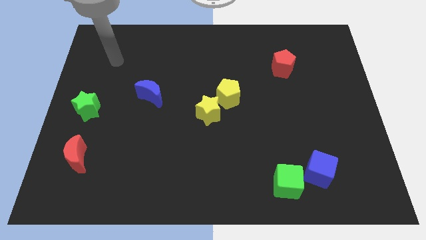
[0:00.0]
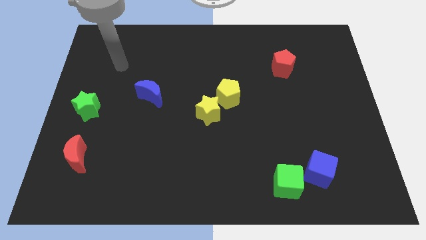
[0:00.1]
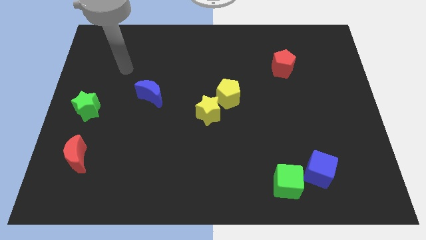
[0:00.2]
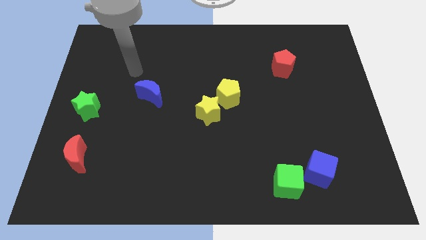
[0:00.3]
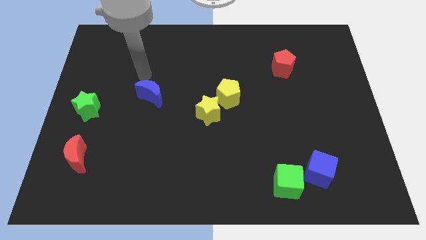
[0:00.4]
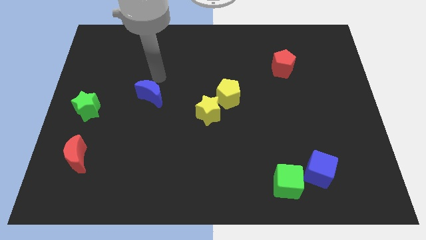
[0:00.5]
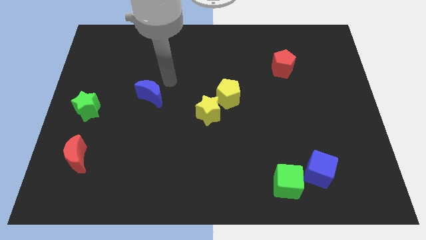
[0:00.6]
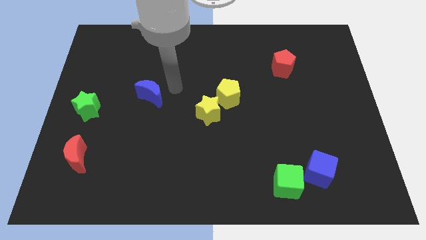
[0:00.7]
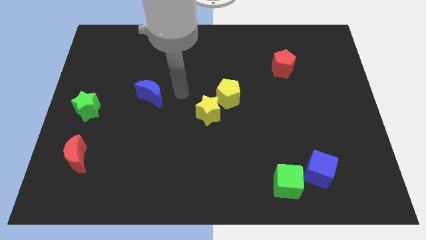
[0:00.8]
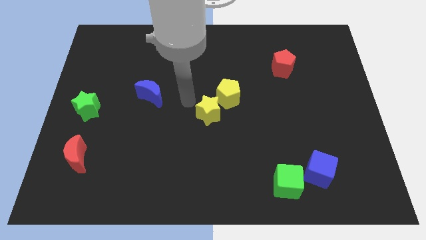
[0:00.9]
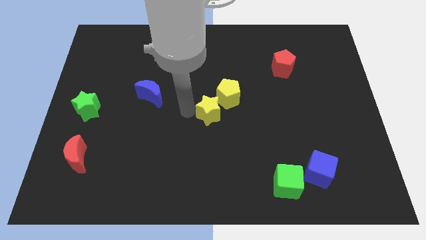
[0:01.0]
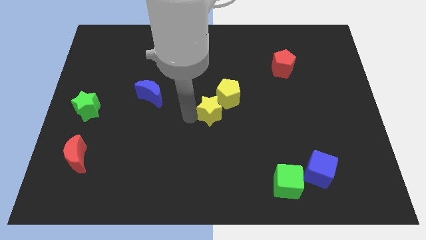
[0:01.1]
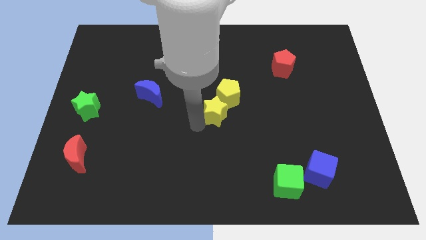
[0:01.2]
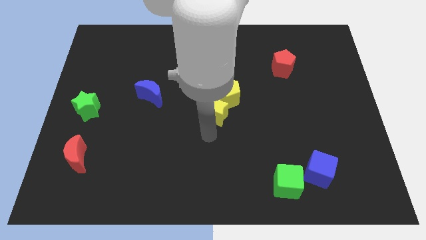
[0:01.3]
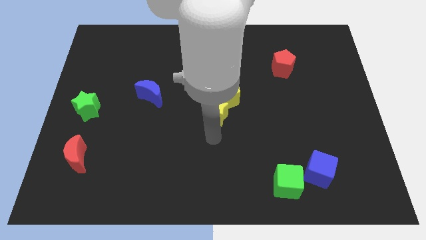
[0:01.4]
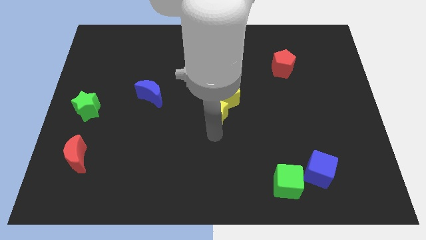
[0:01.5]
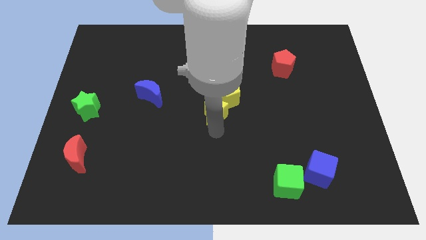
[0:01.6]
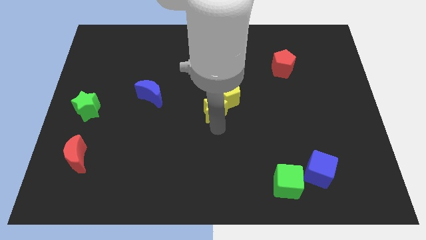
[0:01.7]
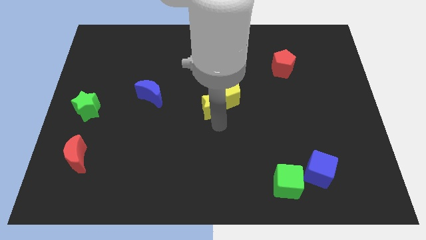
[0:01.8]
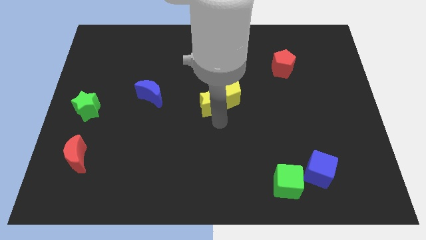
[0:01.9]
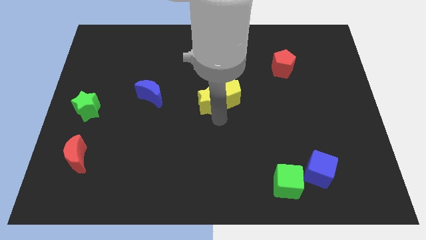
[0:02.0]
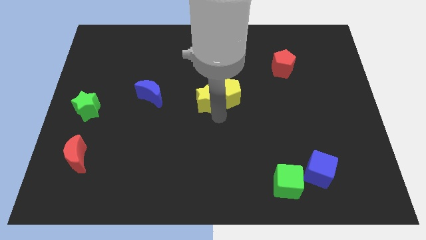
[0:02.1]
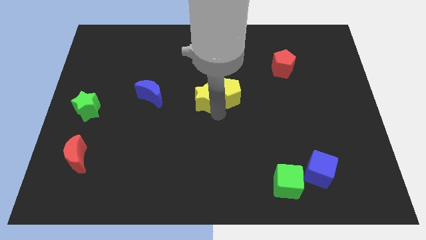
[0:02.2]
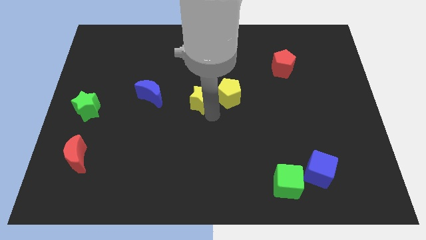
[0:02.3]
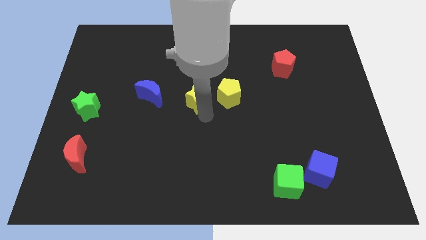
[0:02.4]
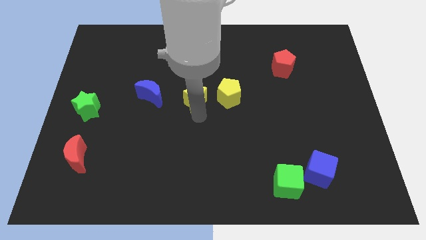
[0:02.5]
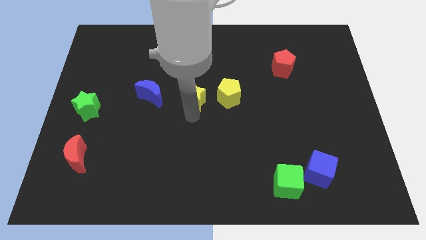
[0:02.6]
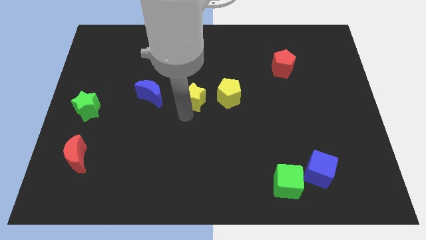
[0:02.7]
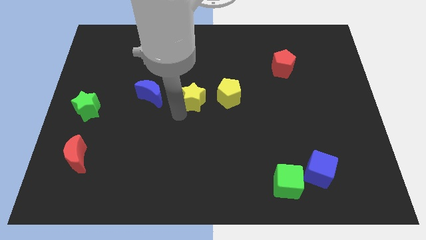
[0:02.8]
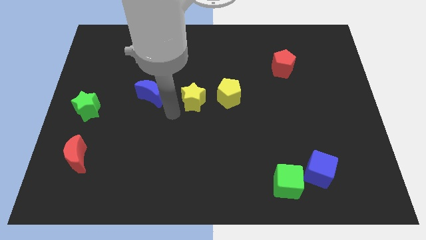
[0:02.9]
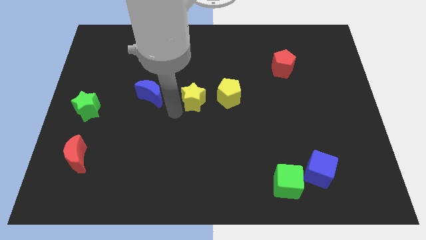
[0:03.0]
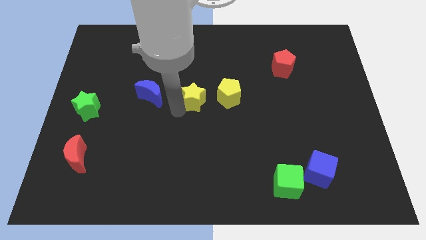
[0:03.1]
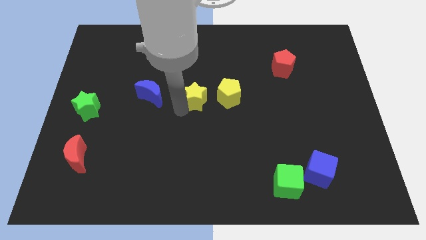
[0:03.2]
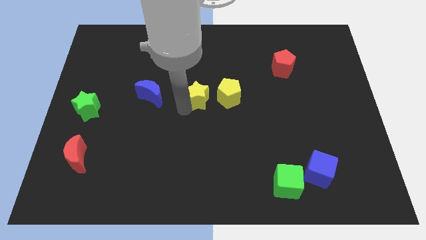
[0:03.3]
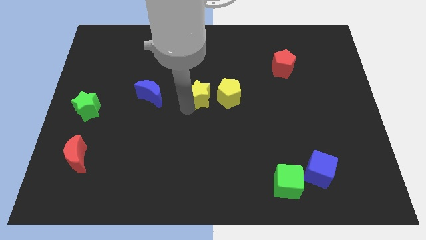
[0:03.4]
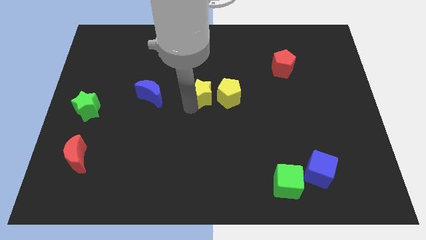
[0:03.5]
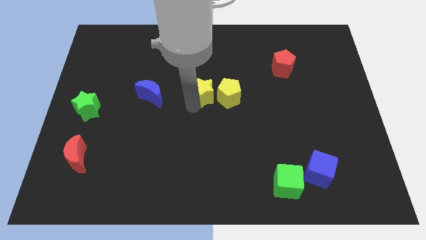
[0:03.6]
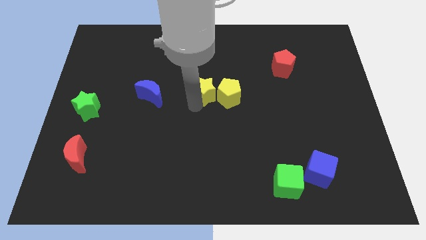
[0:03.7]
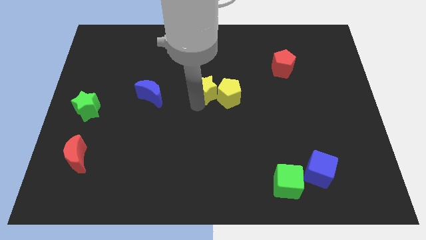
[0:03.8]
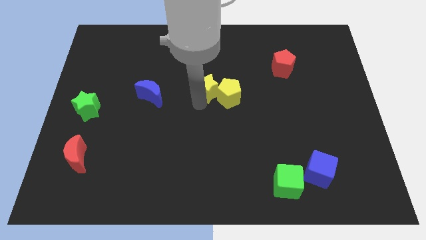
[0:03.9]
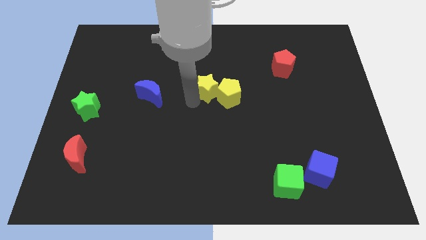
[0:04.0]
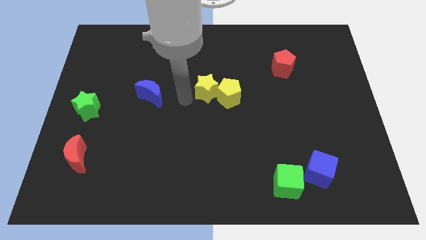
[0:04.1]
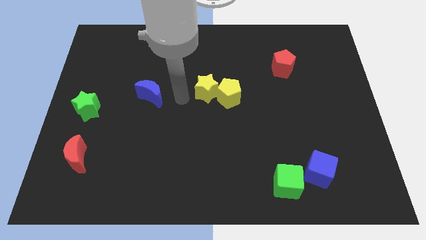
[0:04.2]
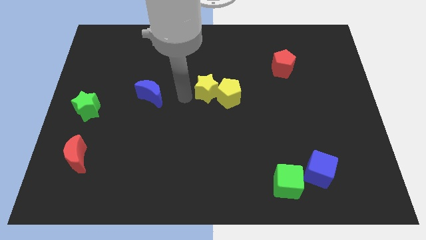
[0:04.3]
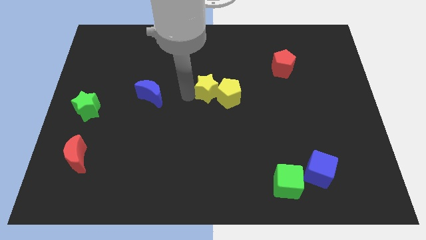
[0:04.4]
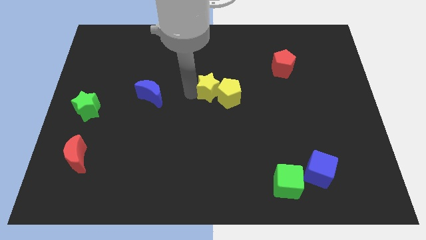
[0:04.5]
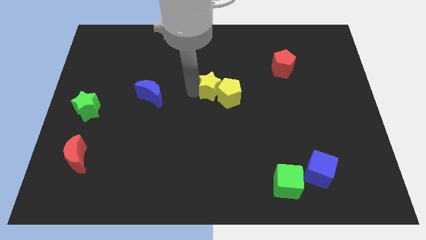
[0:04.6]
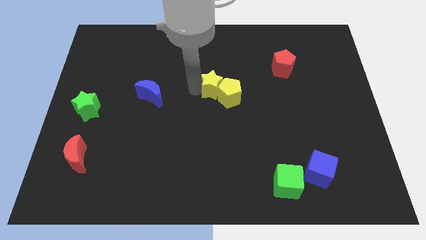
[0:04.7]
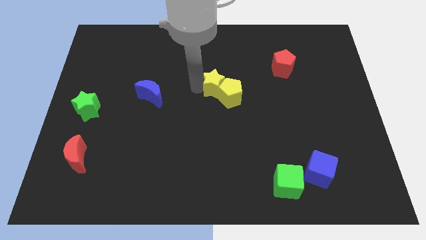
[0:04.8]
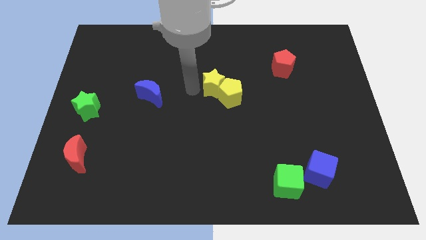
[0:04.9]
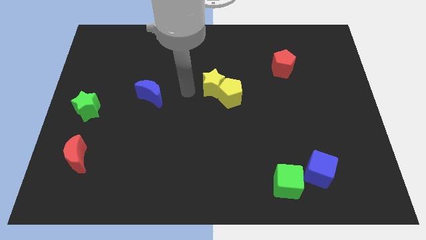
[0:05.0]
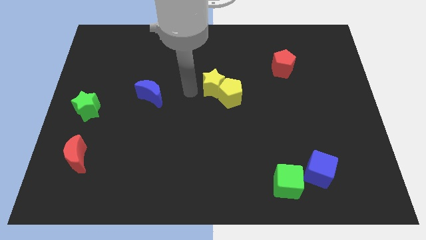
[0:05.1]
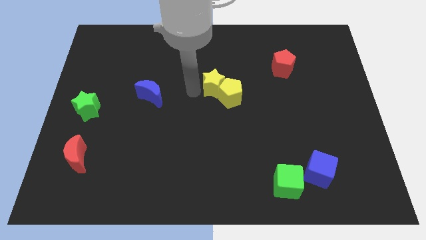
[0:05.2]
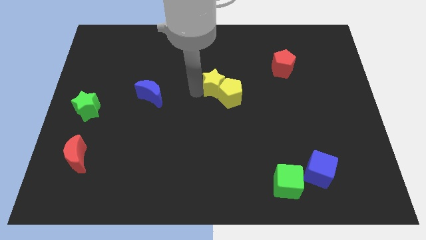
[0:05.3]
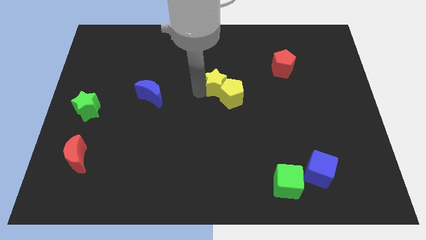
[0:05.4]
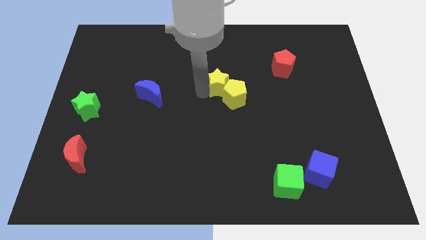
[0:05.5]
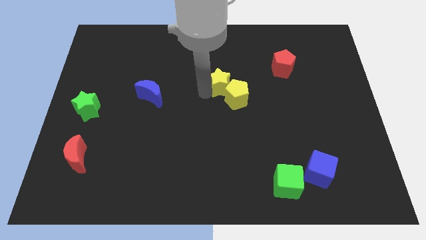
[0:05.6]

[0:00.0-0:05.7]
slightly slide the yellow star diagonally up and right

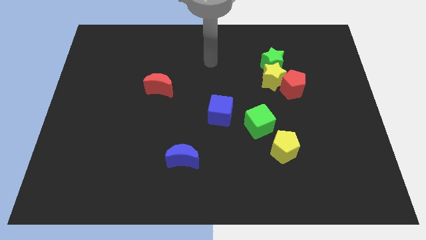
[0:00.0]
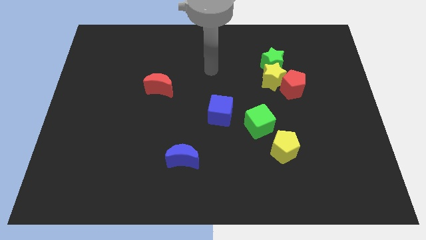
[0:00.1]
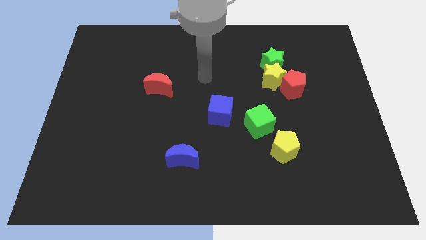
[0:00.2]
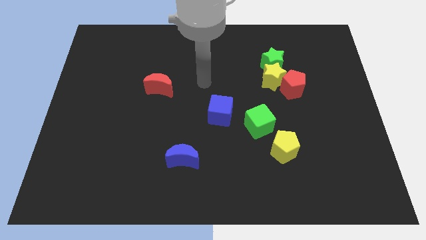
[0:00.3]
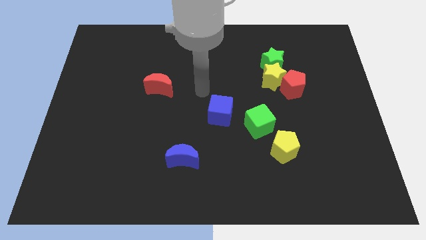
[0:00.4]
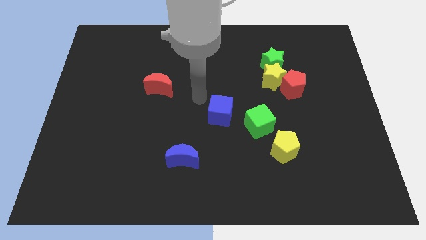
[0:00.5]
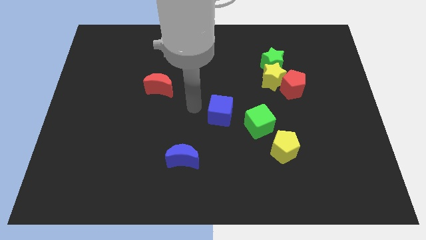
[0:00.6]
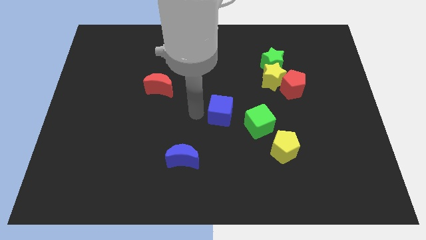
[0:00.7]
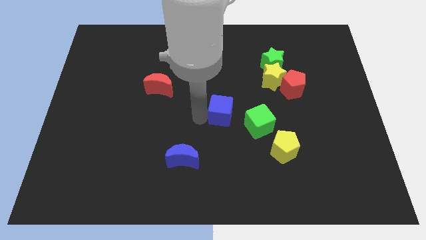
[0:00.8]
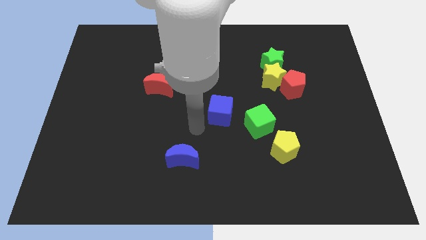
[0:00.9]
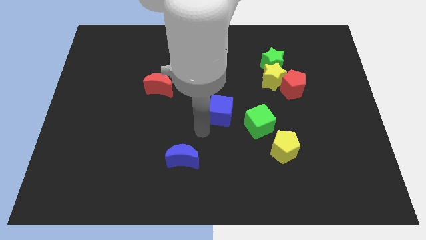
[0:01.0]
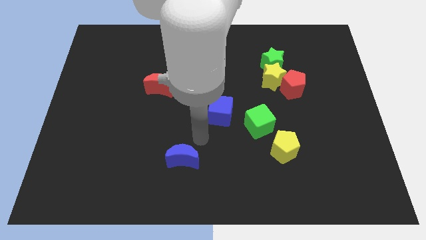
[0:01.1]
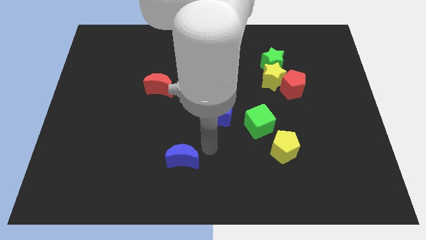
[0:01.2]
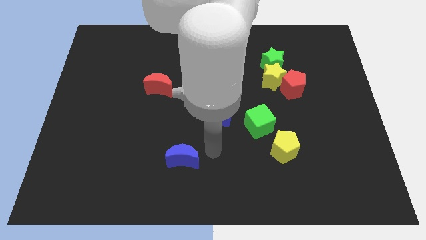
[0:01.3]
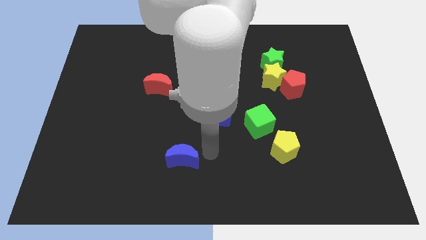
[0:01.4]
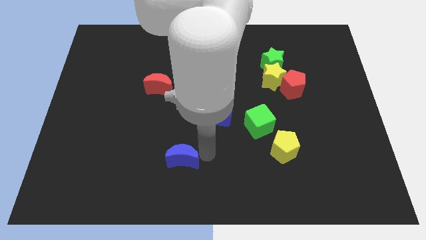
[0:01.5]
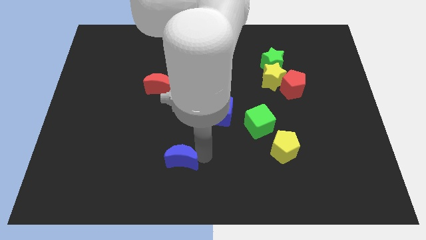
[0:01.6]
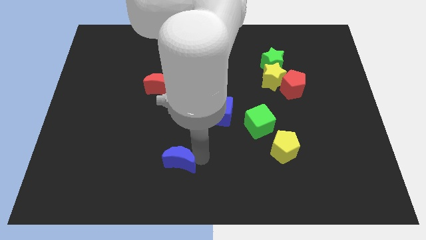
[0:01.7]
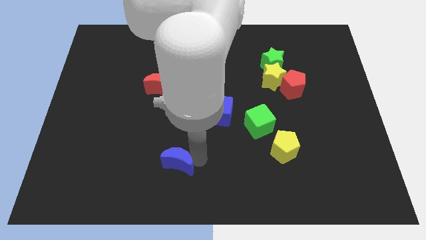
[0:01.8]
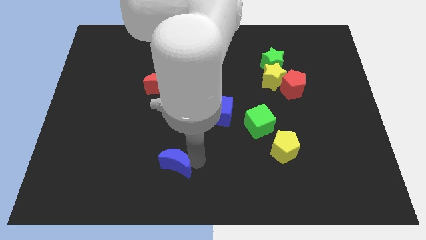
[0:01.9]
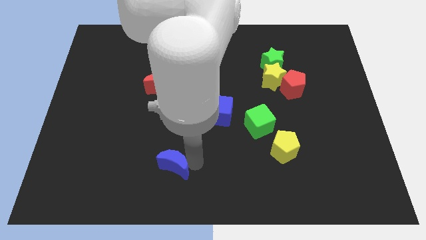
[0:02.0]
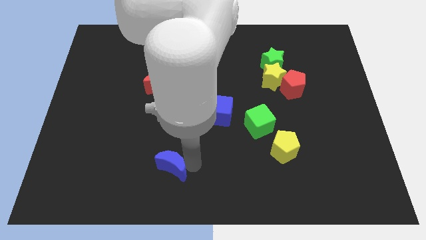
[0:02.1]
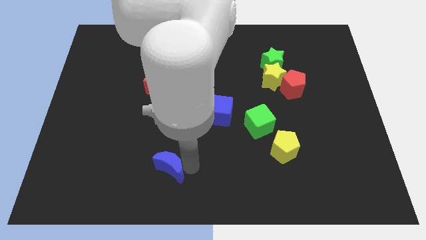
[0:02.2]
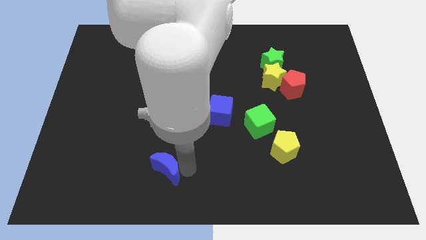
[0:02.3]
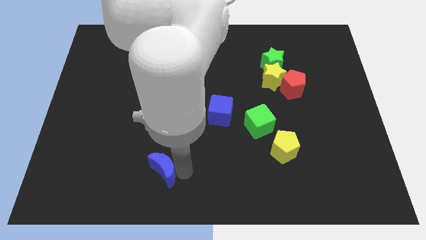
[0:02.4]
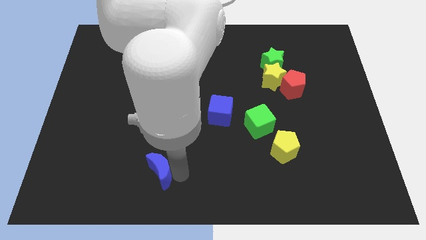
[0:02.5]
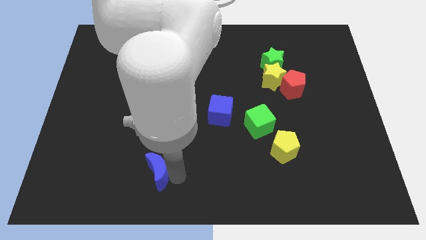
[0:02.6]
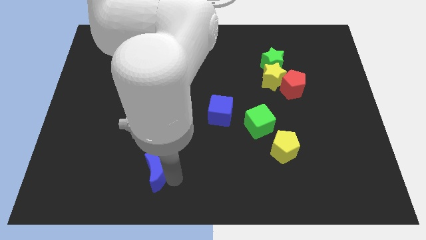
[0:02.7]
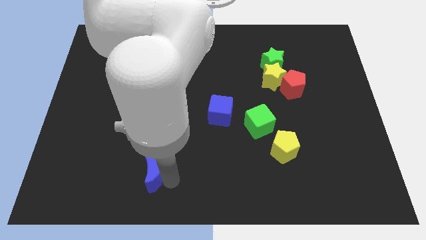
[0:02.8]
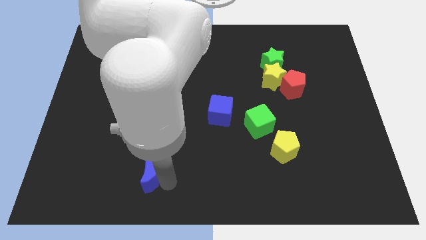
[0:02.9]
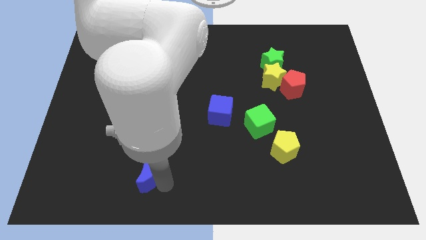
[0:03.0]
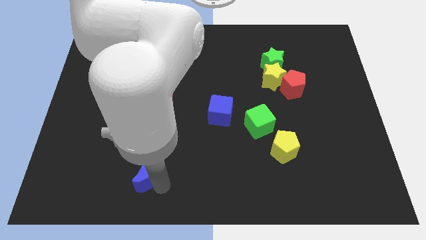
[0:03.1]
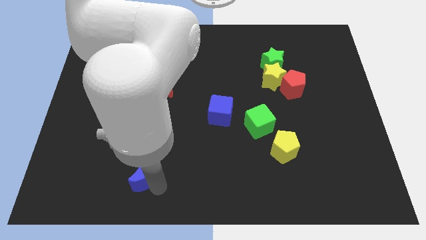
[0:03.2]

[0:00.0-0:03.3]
push the blue moon a bit to the left
